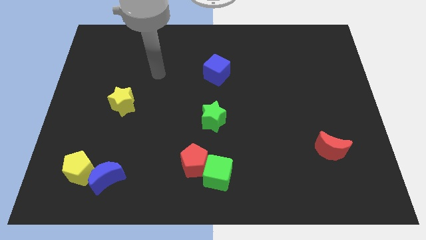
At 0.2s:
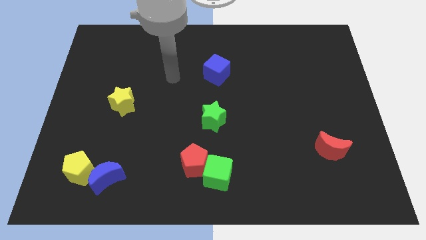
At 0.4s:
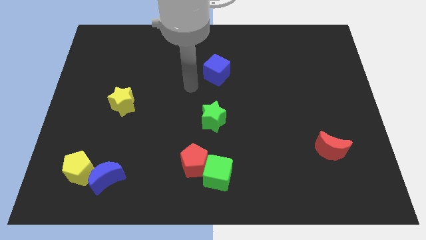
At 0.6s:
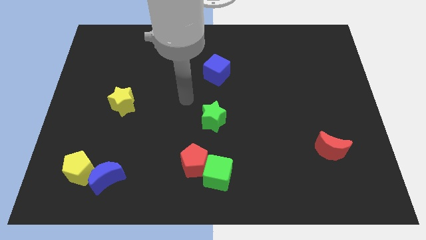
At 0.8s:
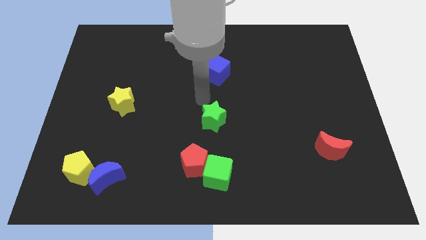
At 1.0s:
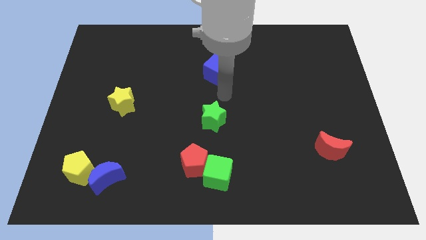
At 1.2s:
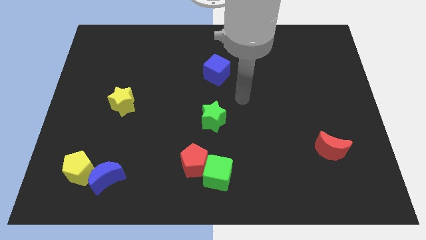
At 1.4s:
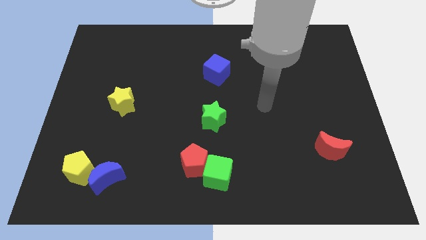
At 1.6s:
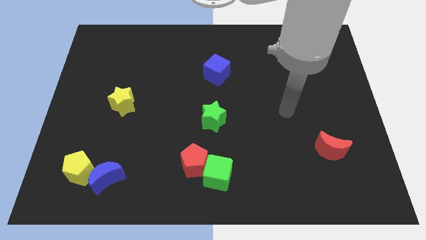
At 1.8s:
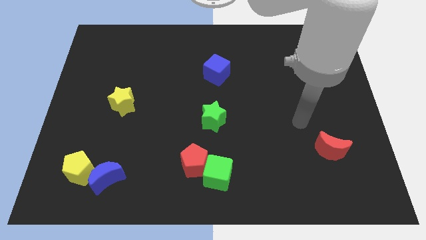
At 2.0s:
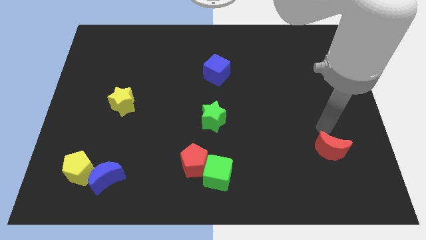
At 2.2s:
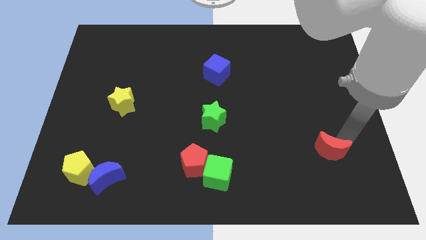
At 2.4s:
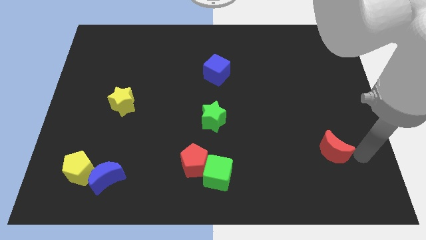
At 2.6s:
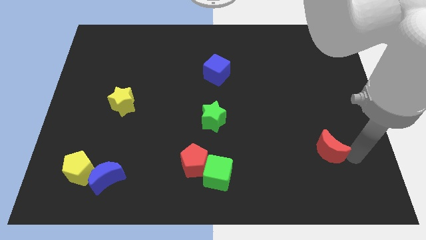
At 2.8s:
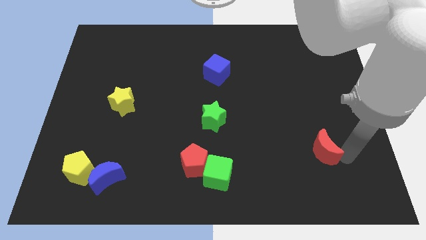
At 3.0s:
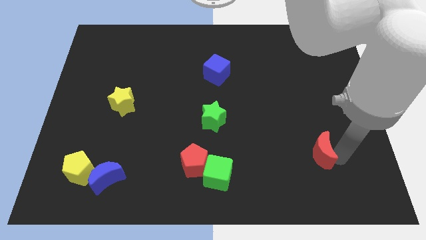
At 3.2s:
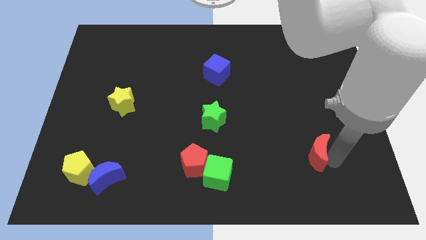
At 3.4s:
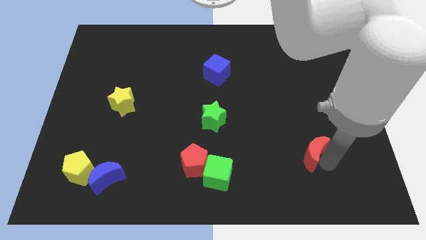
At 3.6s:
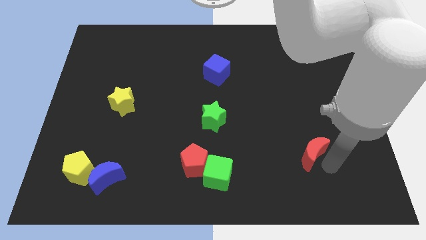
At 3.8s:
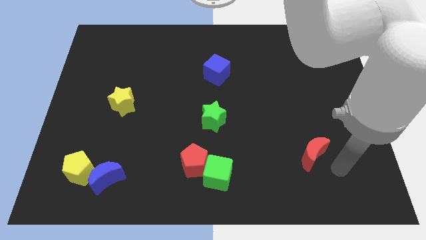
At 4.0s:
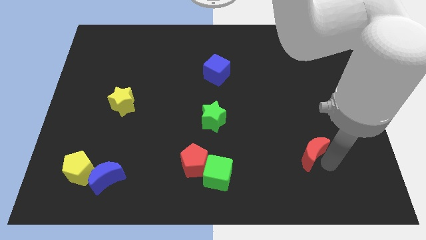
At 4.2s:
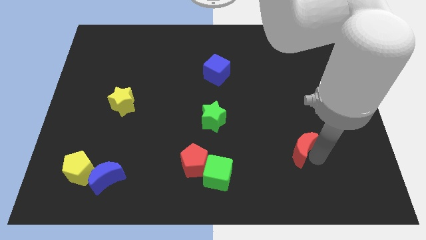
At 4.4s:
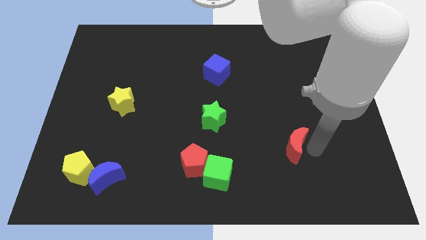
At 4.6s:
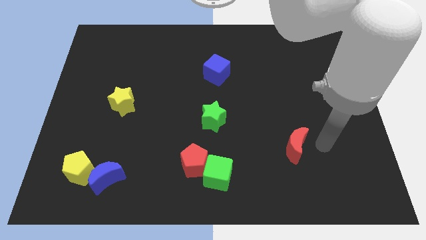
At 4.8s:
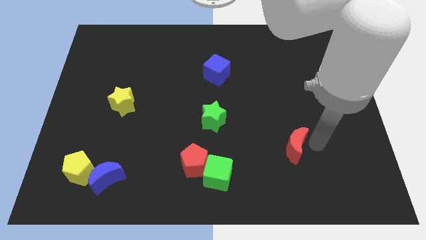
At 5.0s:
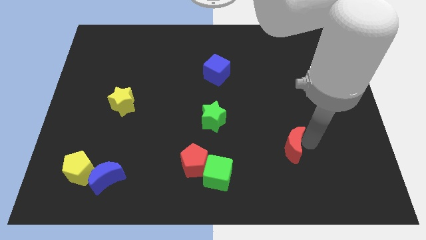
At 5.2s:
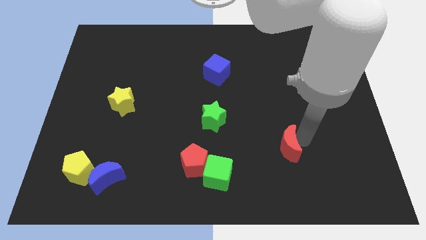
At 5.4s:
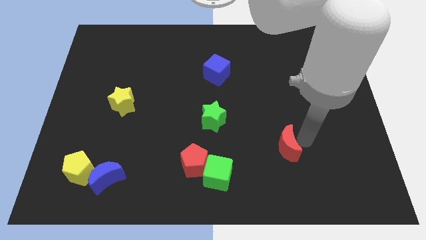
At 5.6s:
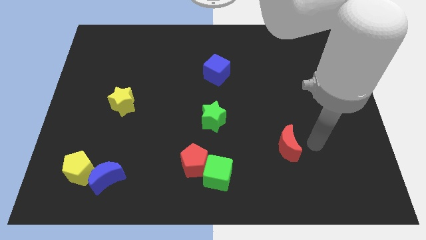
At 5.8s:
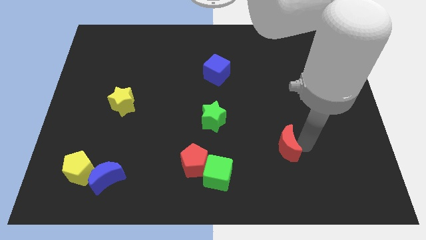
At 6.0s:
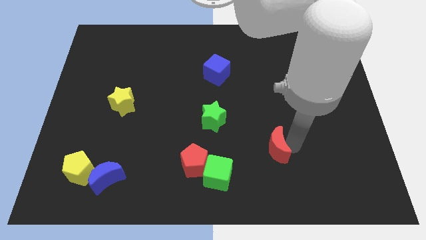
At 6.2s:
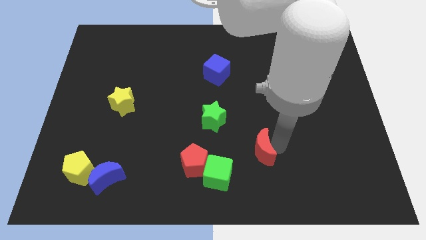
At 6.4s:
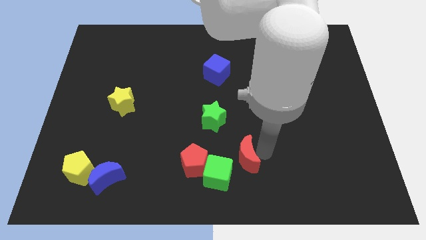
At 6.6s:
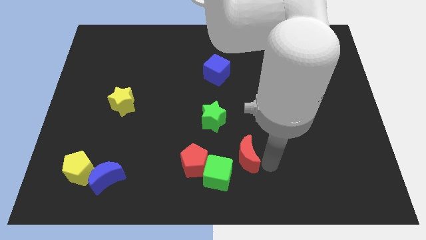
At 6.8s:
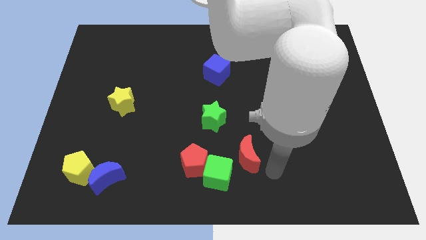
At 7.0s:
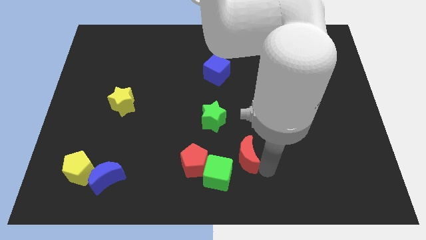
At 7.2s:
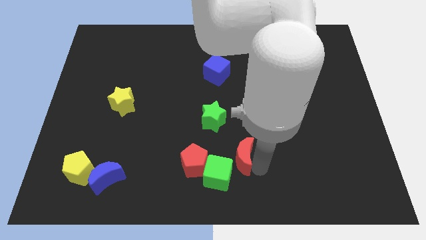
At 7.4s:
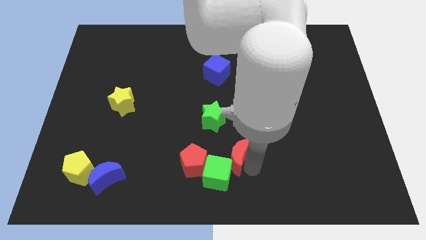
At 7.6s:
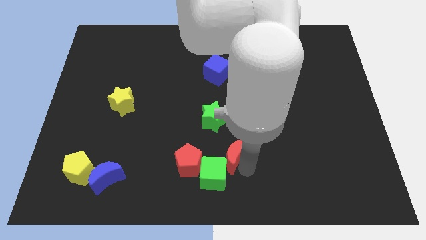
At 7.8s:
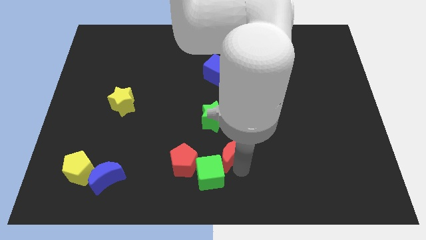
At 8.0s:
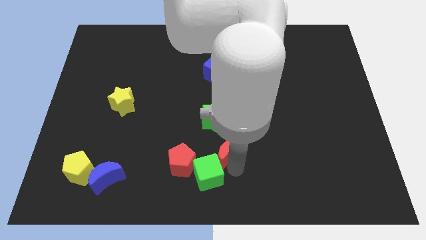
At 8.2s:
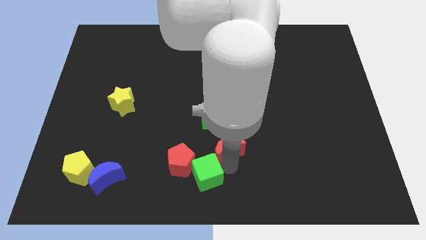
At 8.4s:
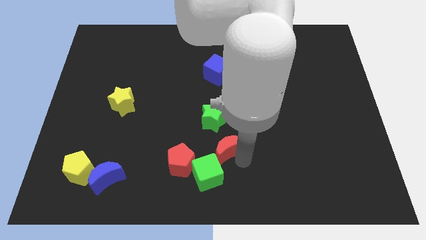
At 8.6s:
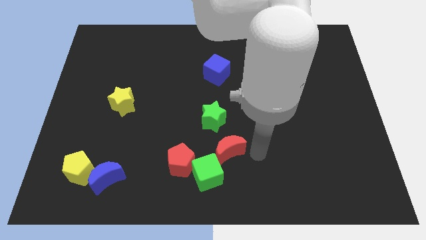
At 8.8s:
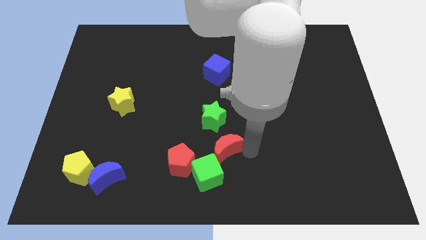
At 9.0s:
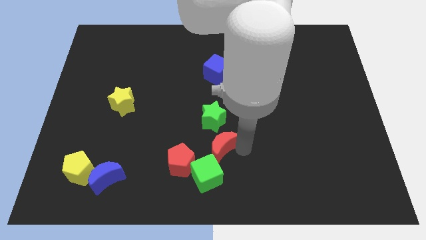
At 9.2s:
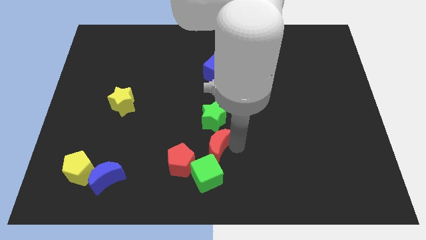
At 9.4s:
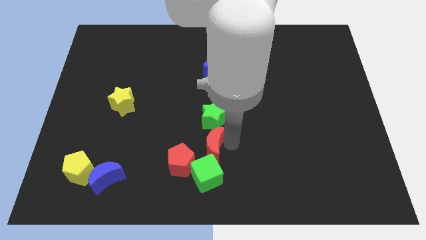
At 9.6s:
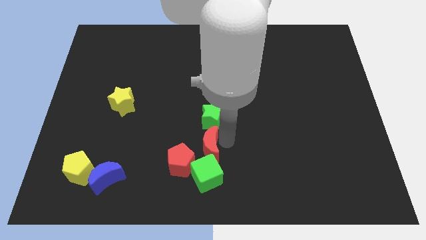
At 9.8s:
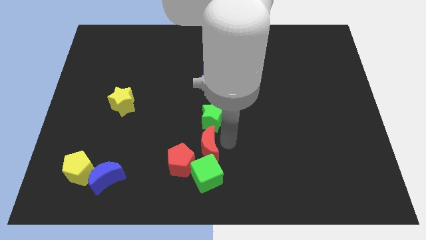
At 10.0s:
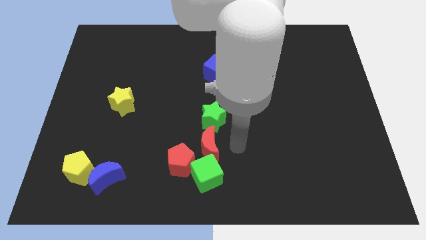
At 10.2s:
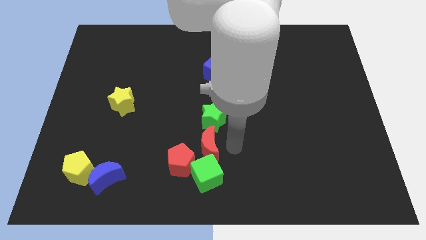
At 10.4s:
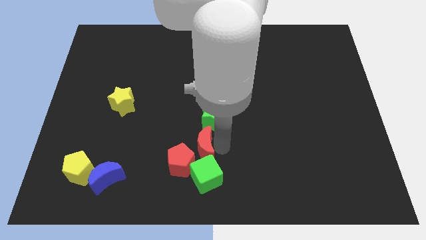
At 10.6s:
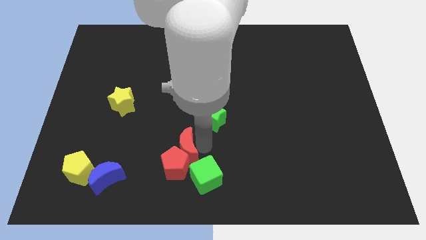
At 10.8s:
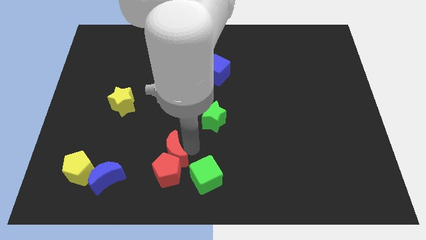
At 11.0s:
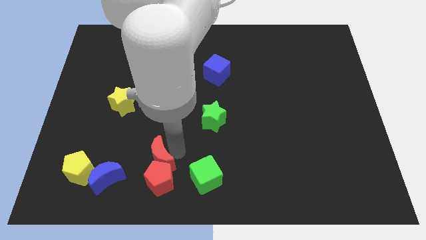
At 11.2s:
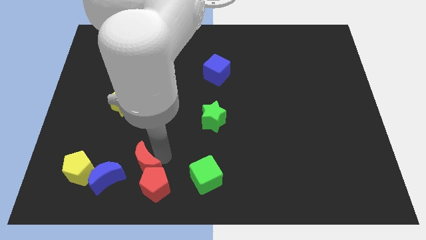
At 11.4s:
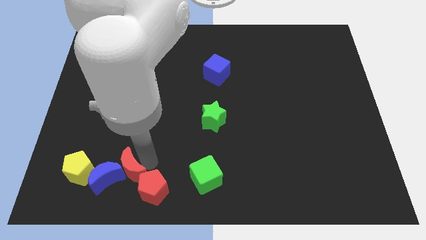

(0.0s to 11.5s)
push the red moon close to the blue moon

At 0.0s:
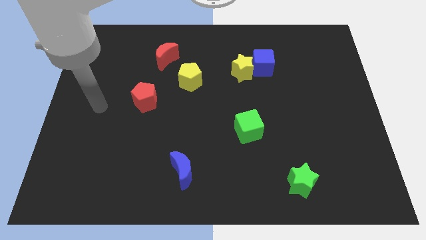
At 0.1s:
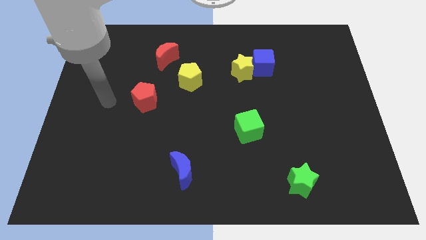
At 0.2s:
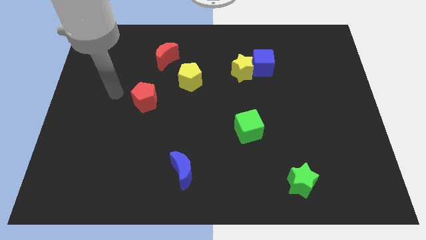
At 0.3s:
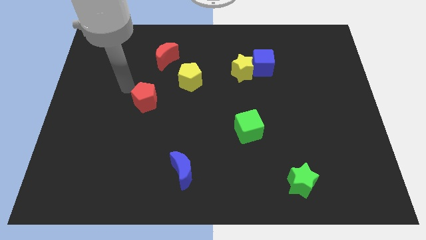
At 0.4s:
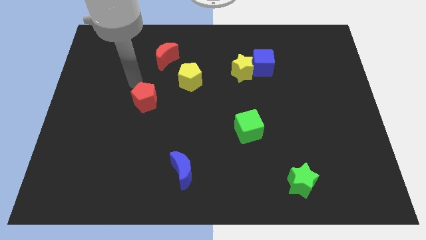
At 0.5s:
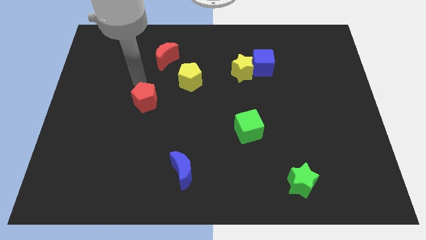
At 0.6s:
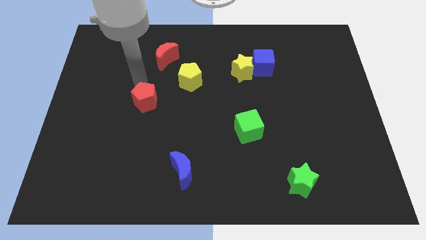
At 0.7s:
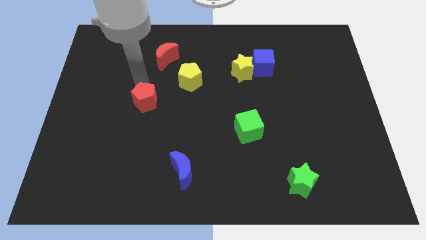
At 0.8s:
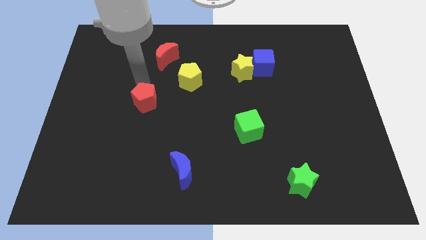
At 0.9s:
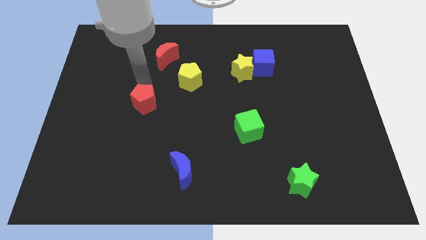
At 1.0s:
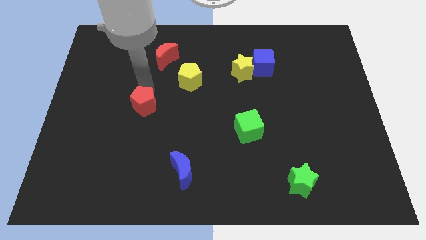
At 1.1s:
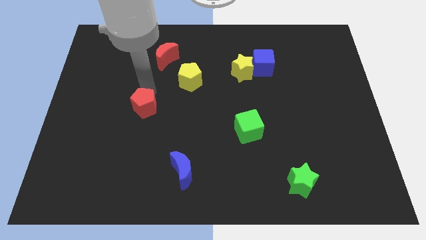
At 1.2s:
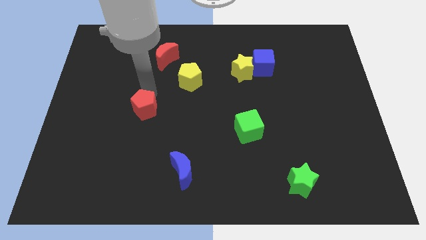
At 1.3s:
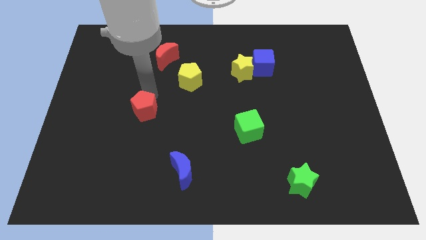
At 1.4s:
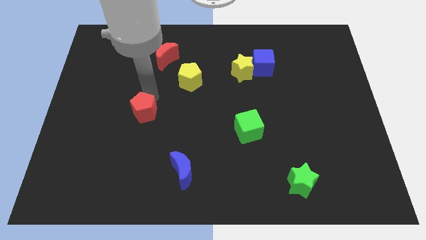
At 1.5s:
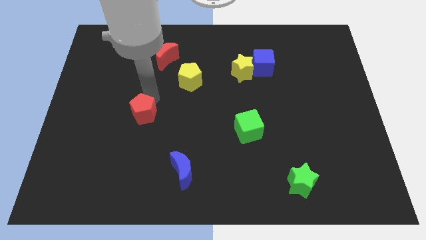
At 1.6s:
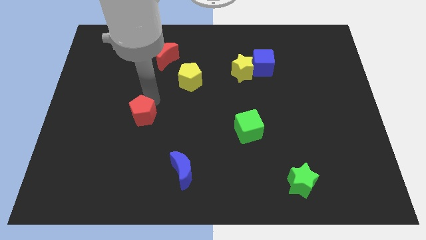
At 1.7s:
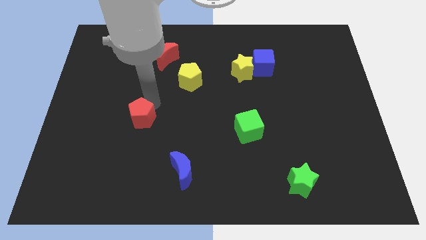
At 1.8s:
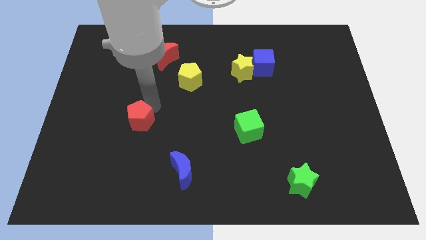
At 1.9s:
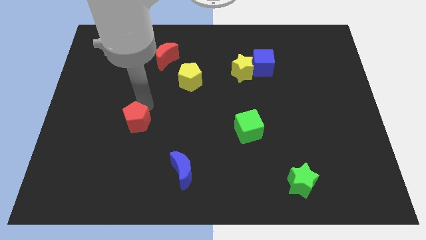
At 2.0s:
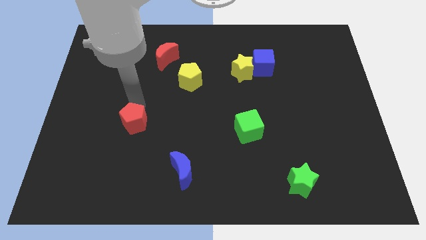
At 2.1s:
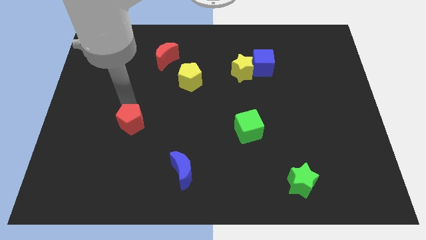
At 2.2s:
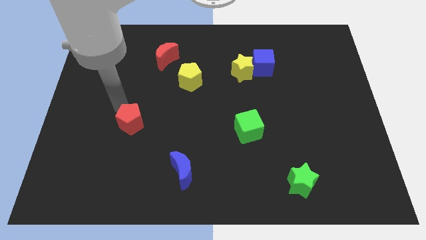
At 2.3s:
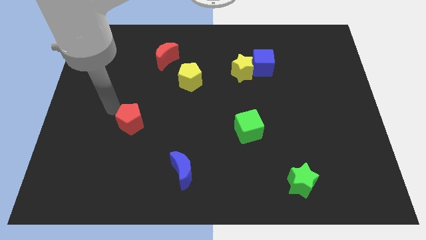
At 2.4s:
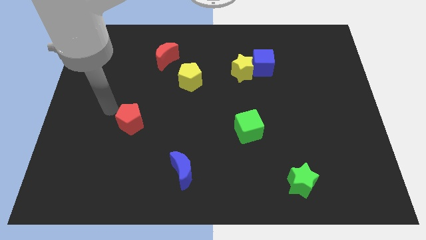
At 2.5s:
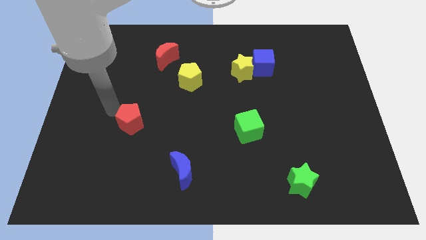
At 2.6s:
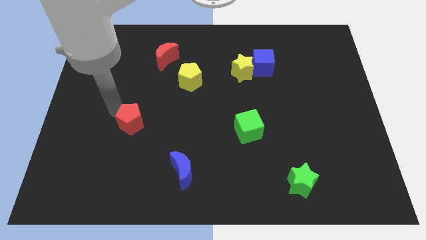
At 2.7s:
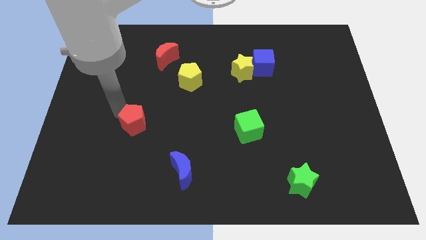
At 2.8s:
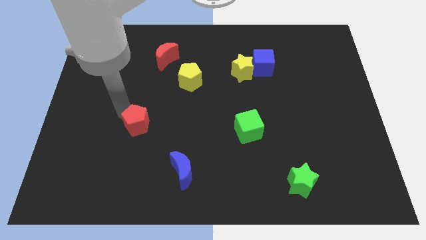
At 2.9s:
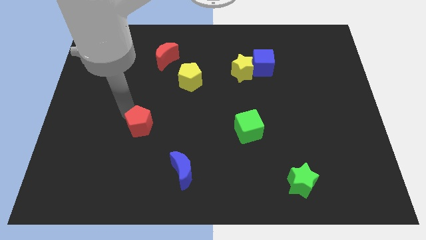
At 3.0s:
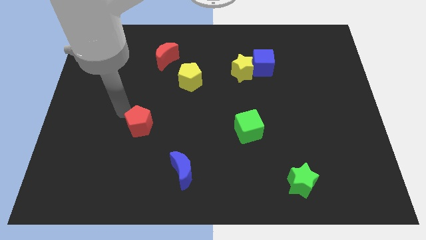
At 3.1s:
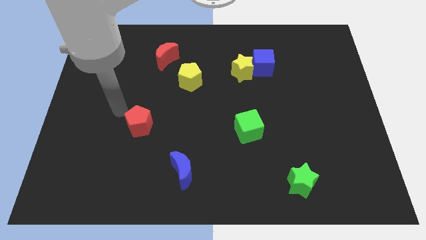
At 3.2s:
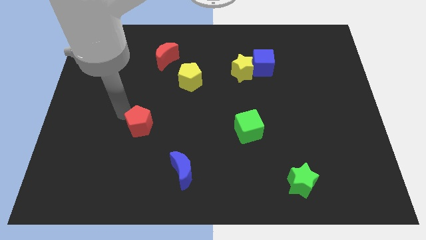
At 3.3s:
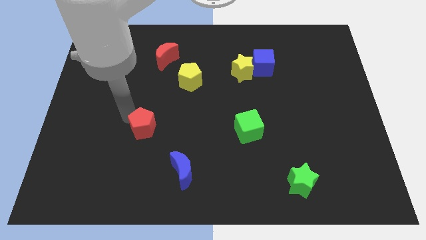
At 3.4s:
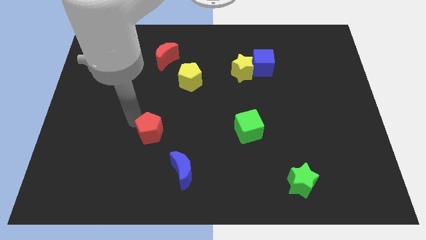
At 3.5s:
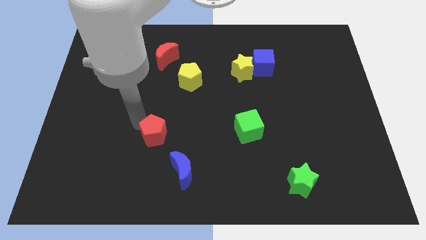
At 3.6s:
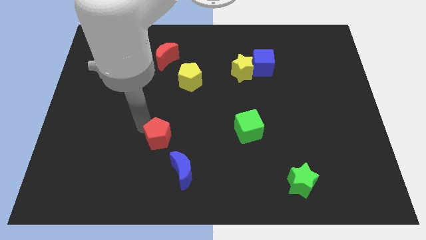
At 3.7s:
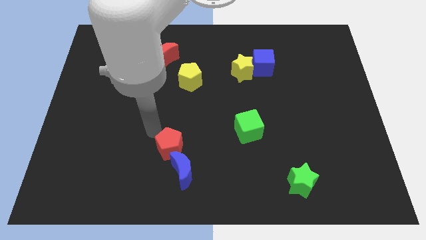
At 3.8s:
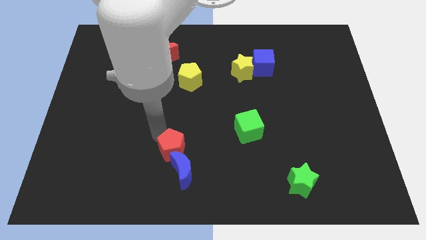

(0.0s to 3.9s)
push the red pentagon to the blue moon
